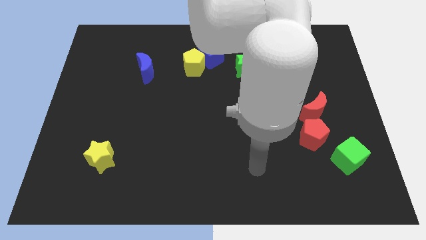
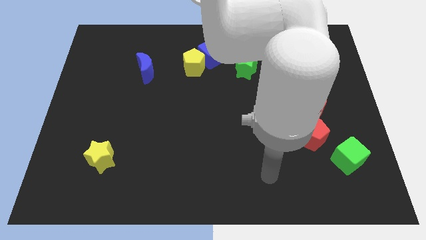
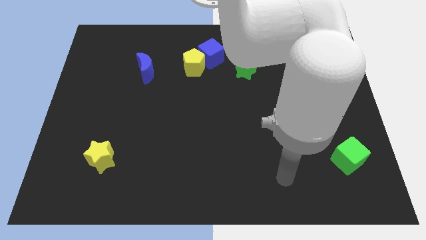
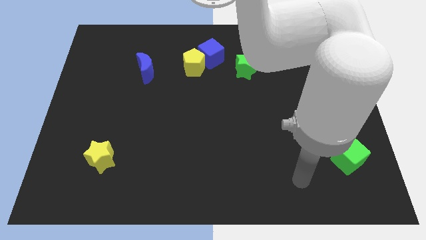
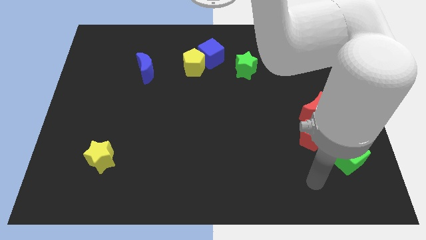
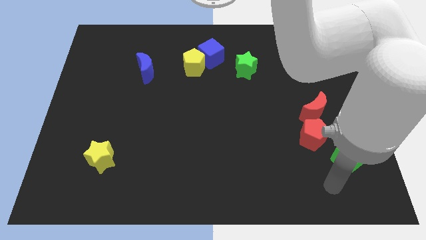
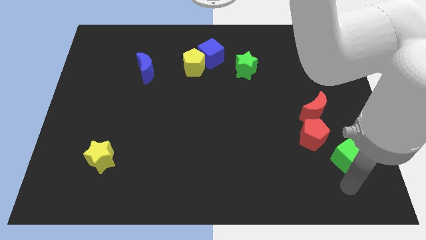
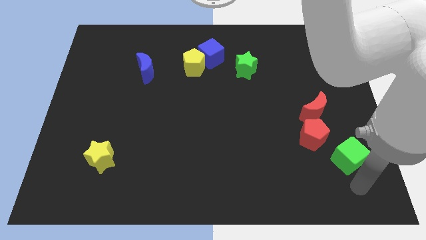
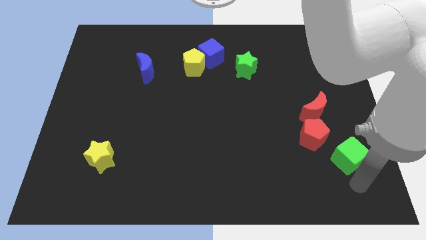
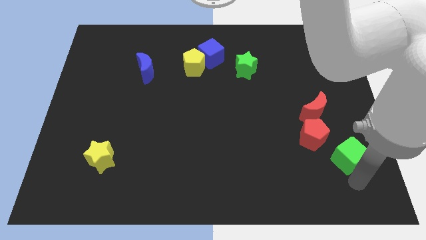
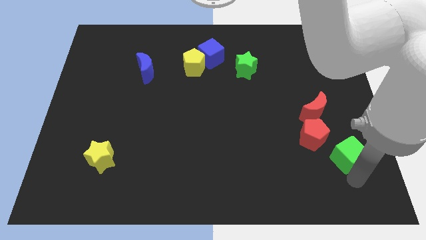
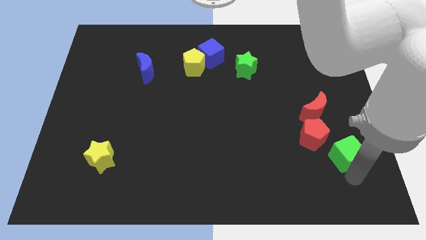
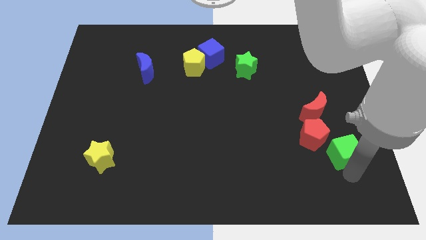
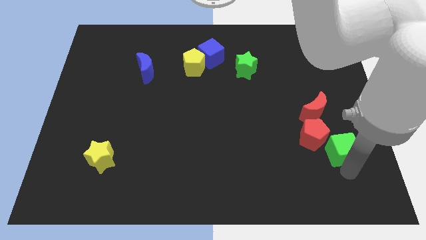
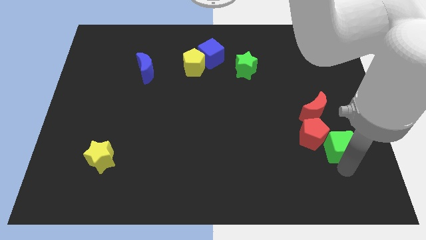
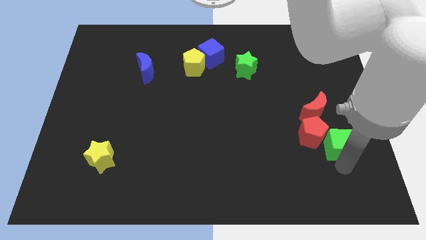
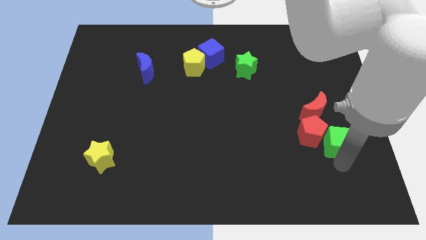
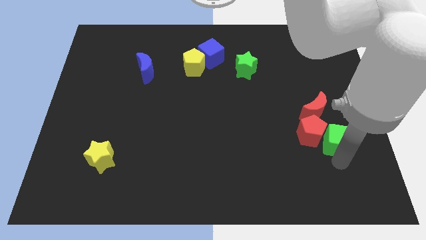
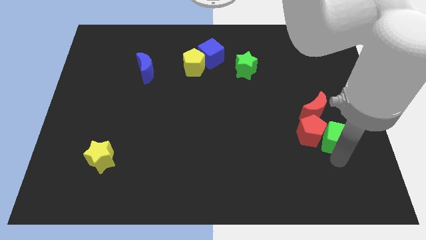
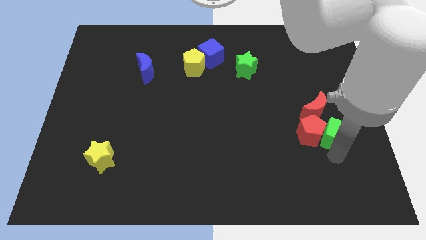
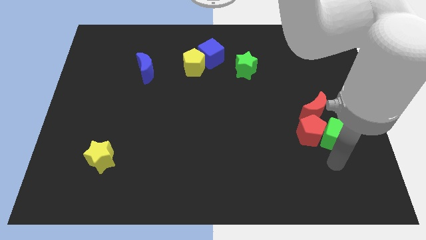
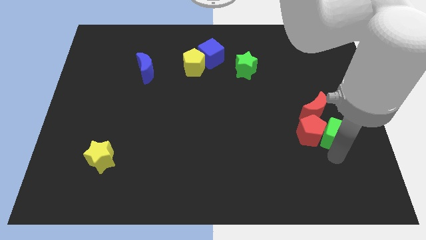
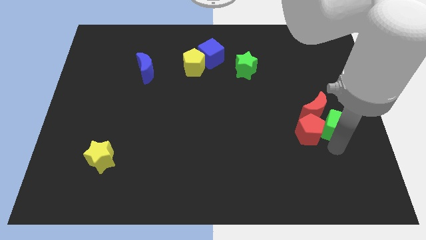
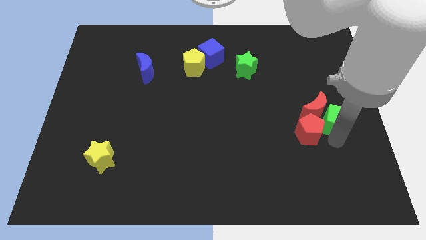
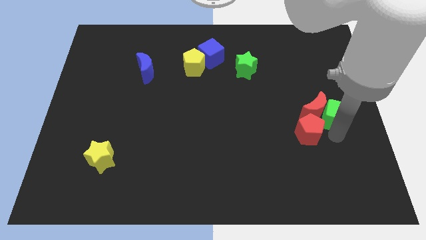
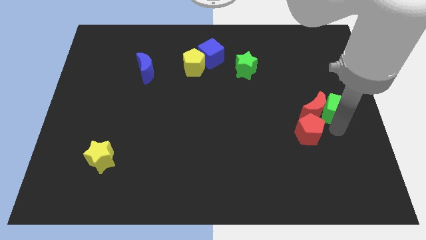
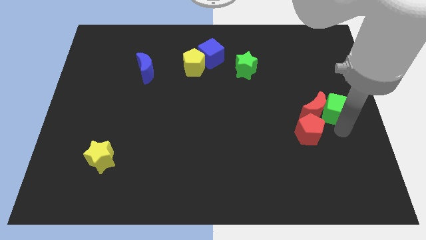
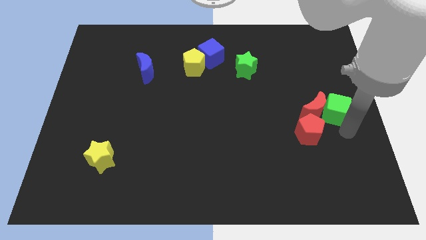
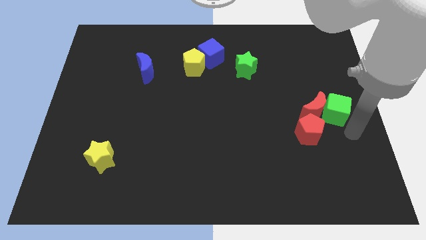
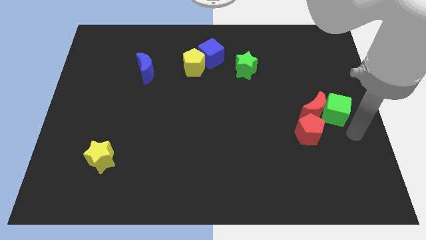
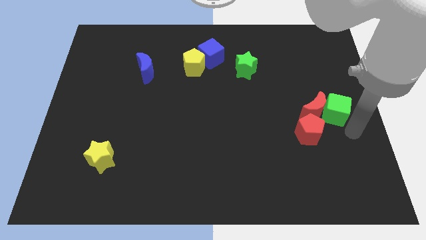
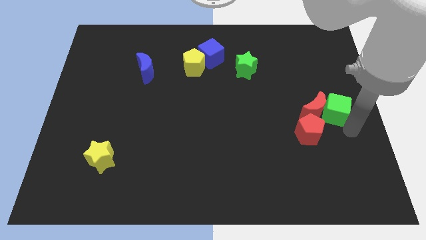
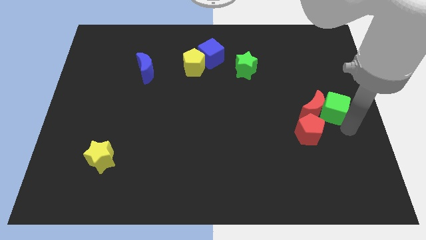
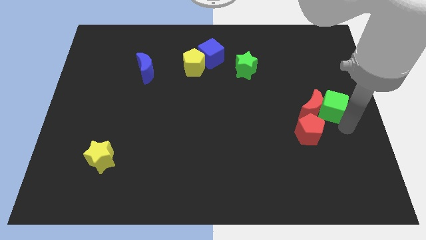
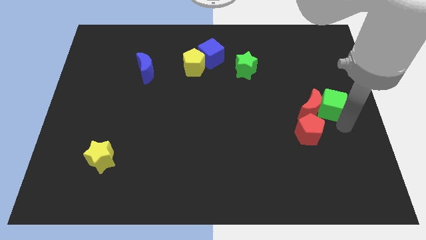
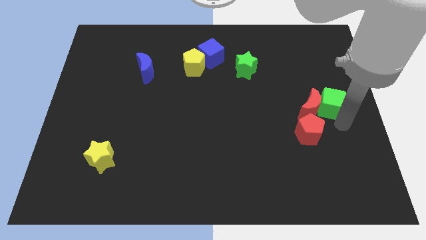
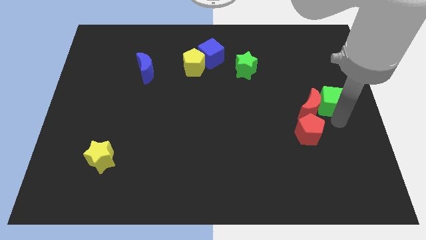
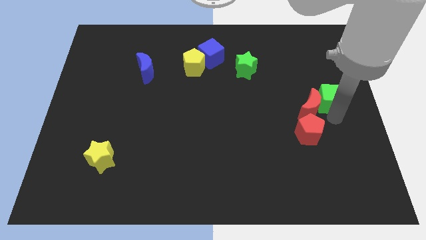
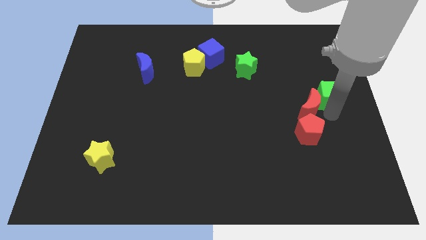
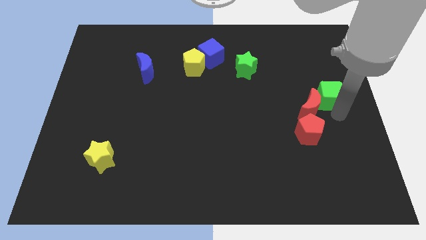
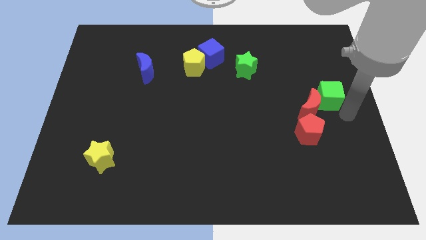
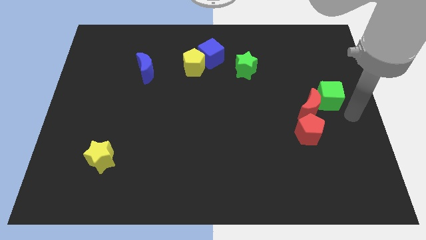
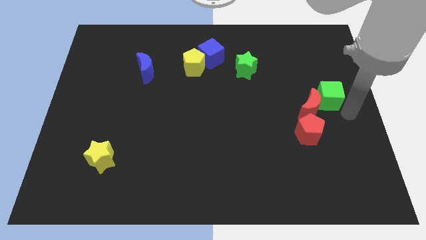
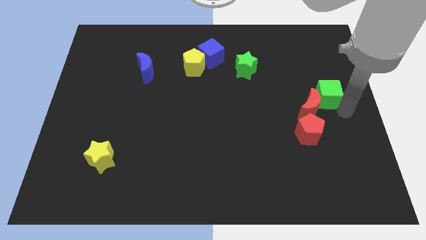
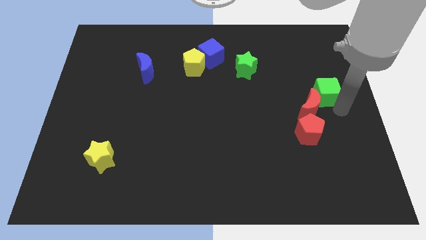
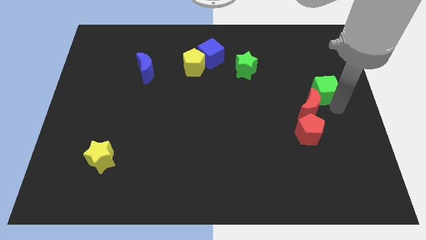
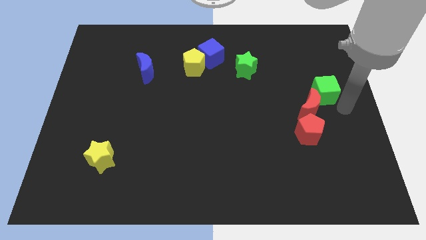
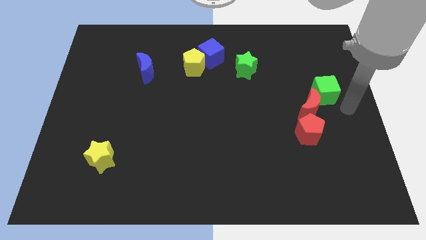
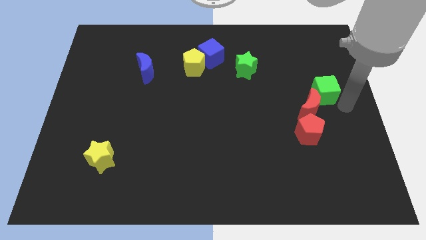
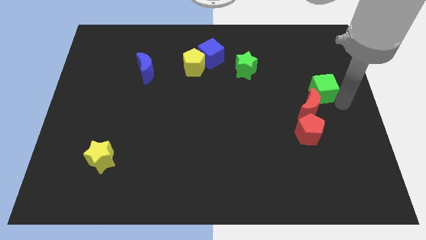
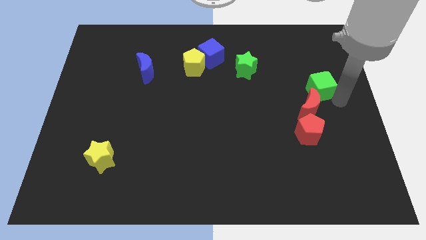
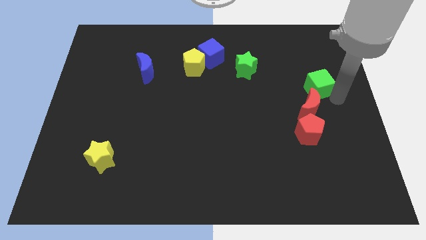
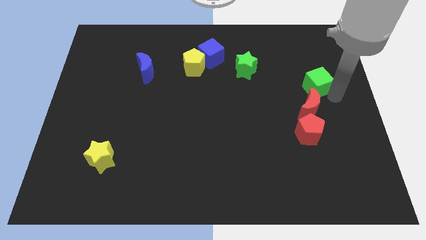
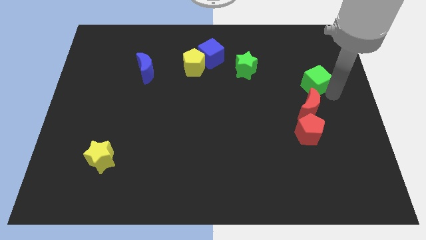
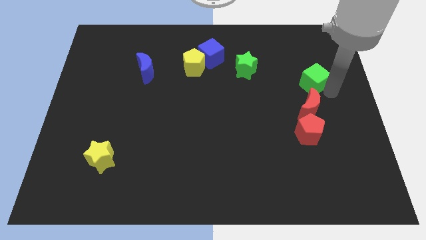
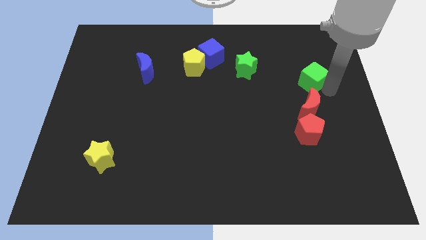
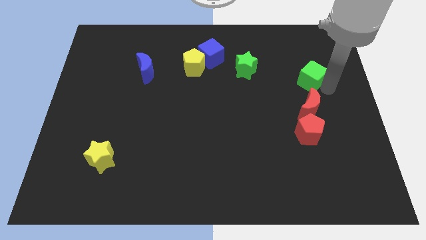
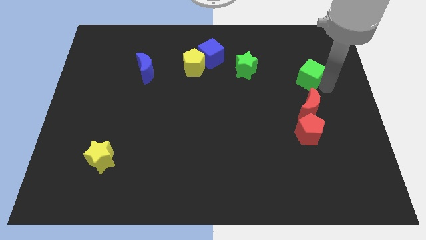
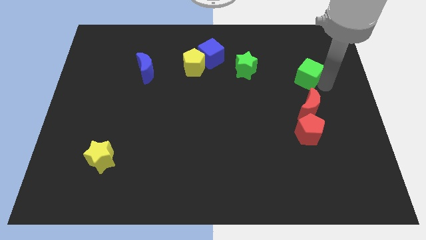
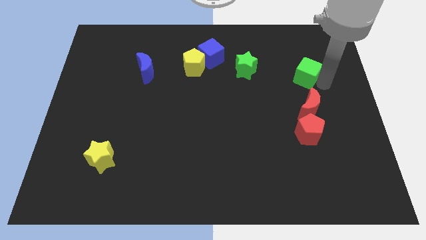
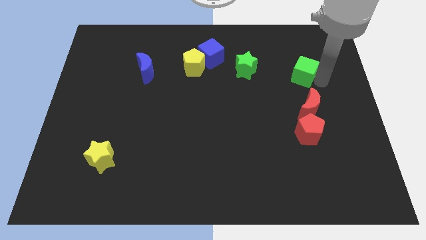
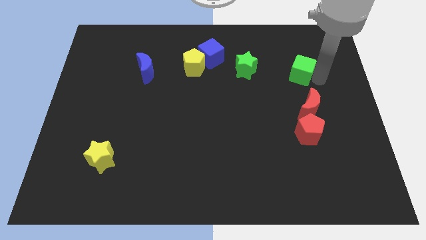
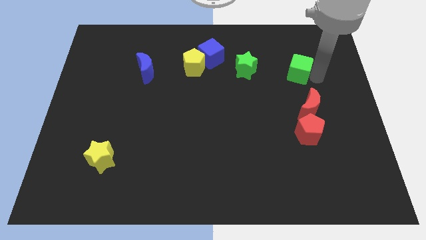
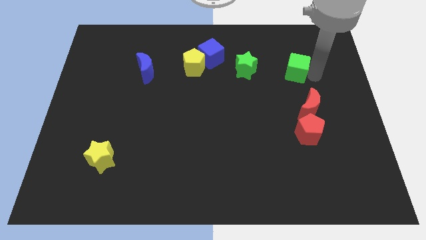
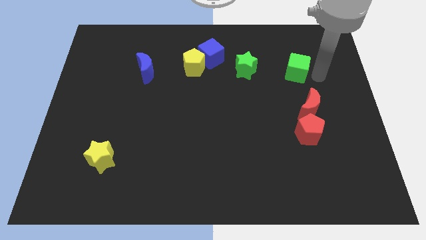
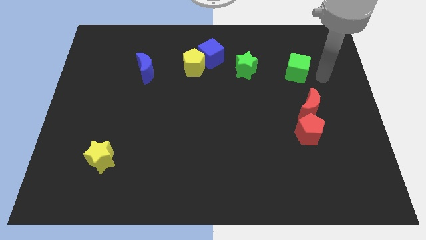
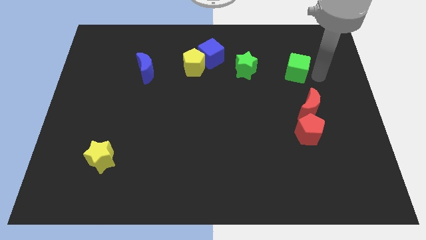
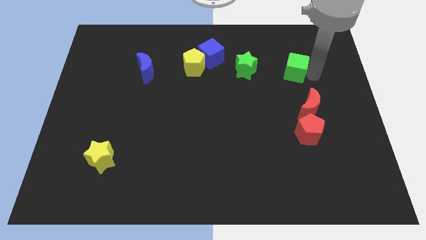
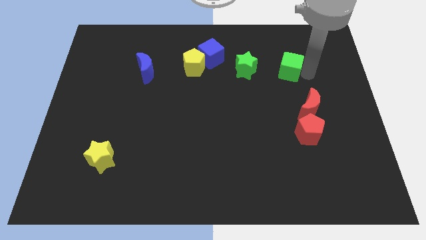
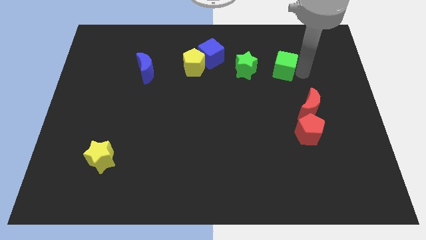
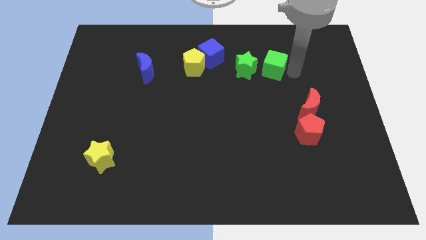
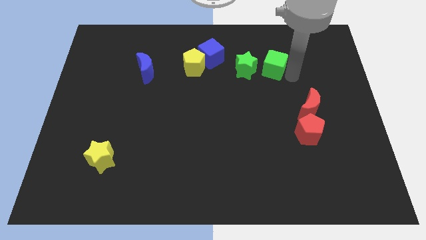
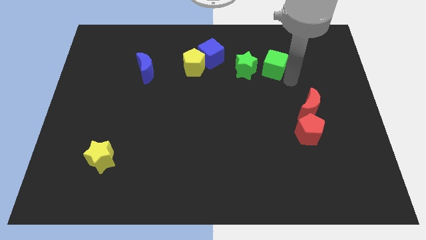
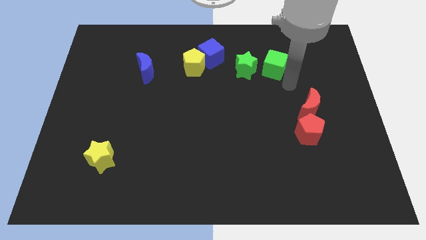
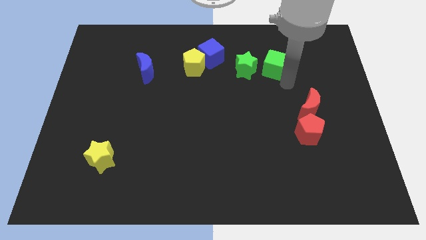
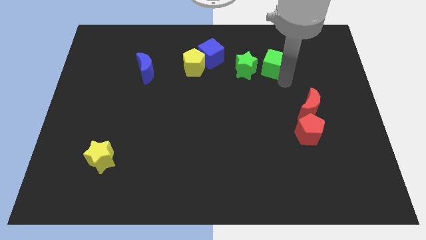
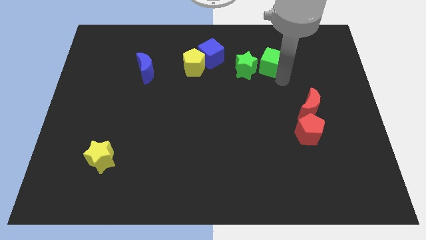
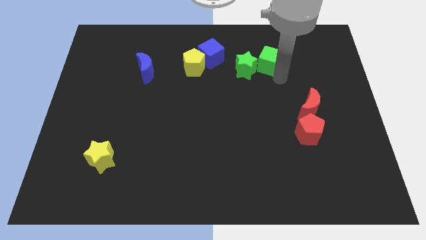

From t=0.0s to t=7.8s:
move the green cube to the right of the blue cube

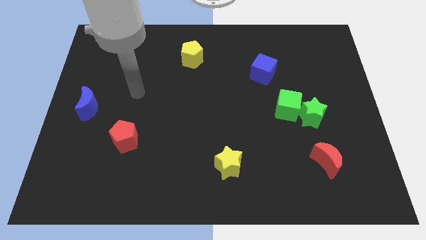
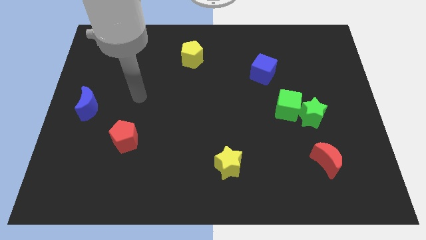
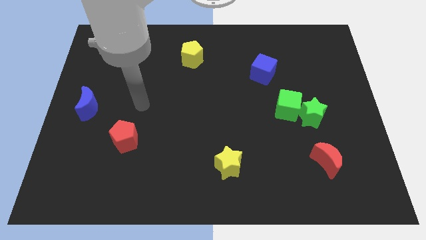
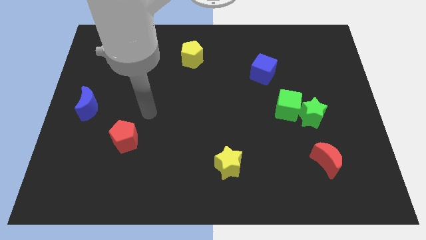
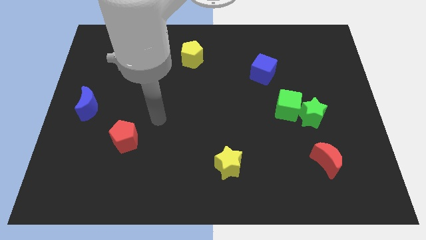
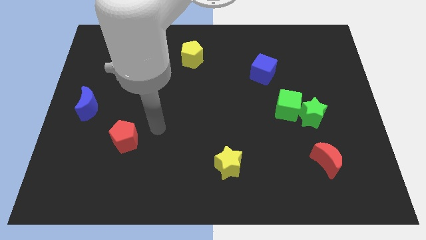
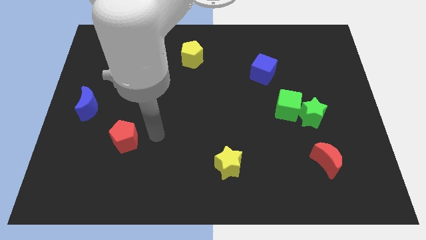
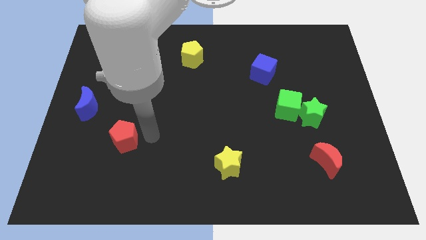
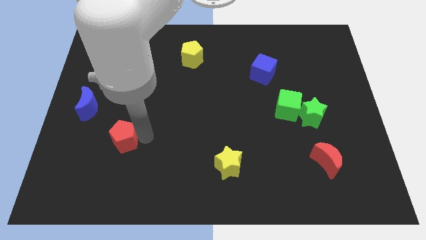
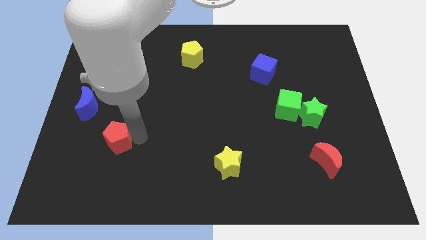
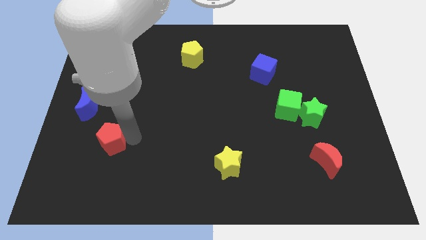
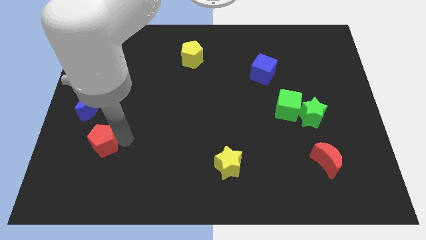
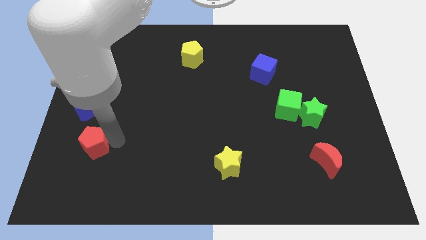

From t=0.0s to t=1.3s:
slide the red pentagon below the blue moon
